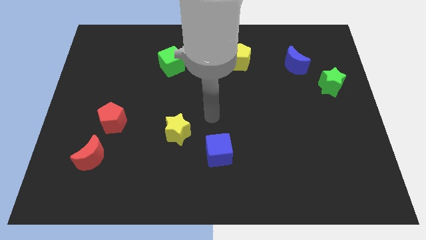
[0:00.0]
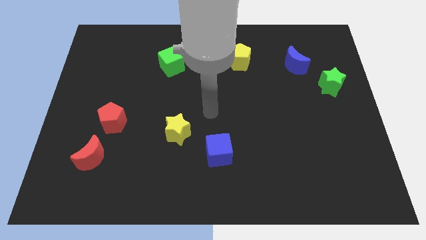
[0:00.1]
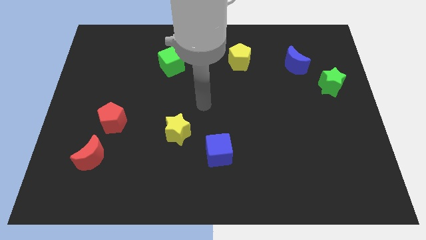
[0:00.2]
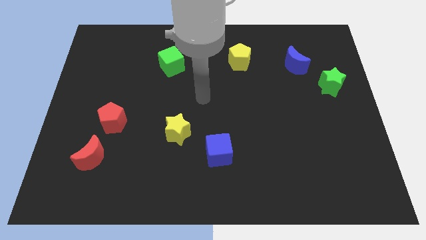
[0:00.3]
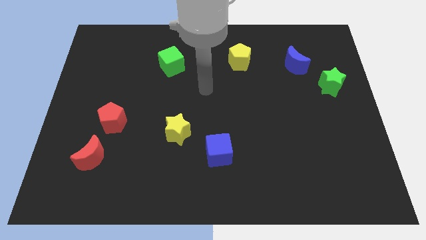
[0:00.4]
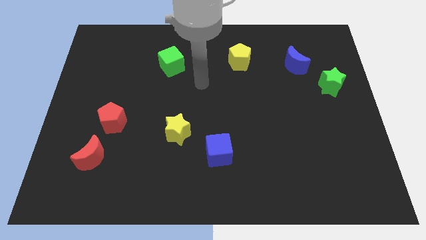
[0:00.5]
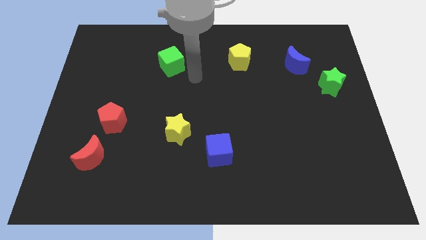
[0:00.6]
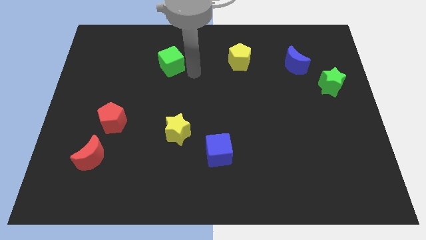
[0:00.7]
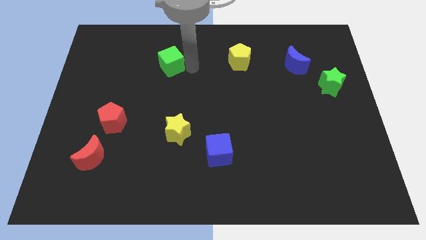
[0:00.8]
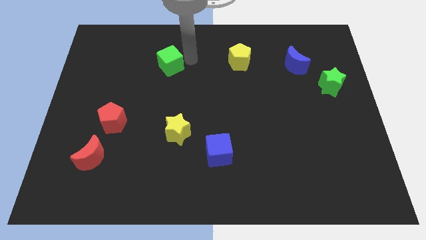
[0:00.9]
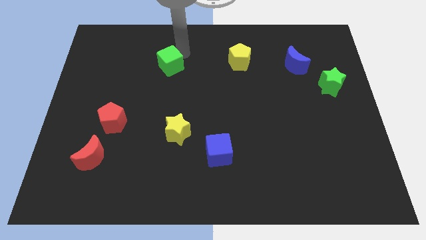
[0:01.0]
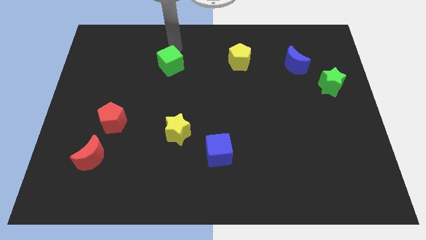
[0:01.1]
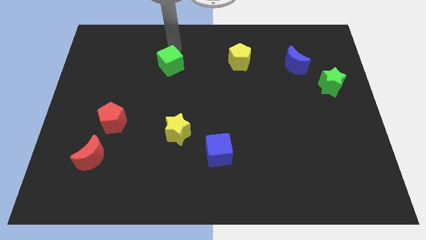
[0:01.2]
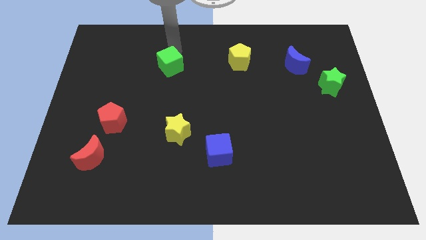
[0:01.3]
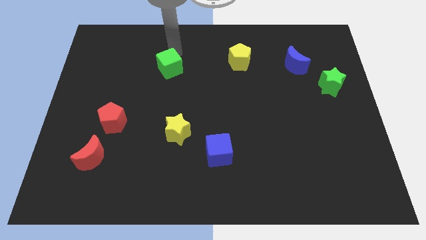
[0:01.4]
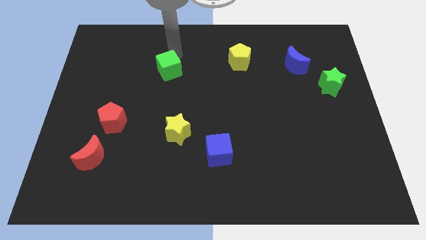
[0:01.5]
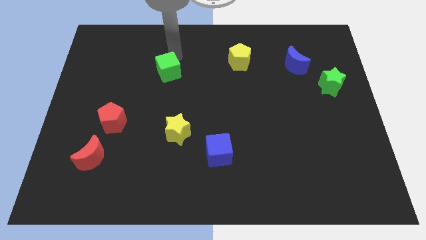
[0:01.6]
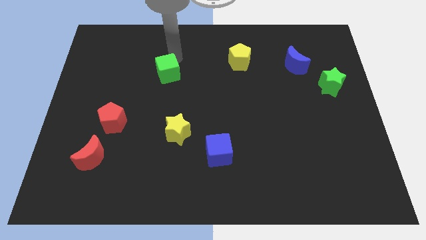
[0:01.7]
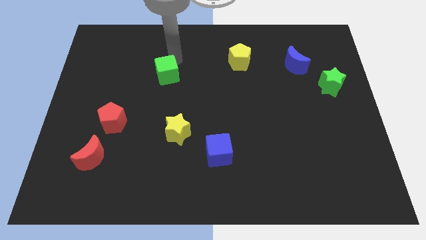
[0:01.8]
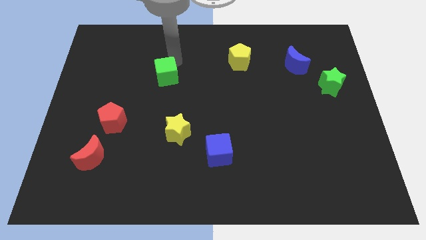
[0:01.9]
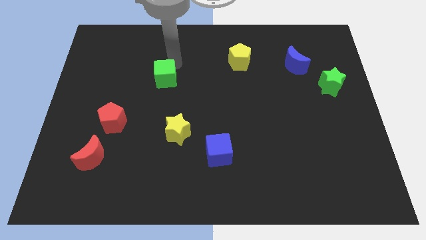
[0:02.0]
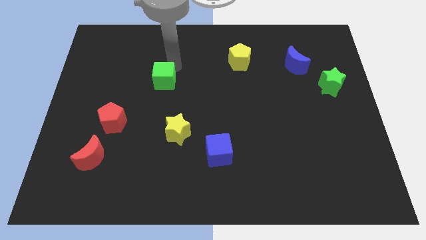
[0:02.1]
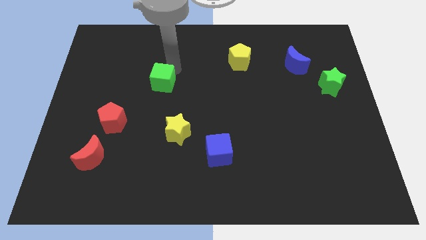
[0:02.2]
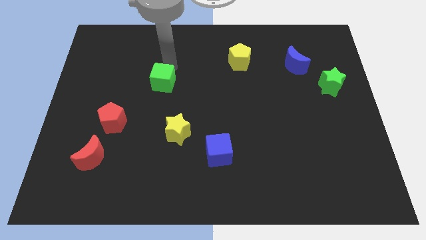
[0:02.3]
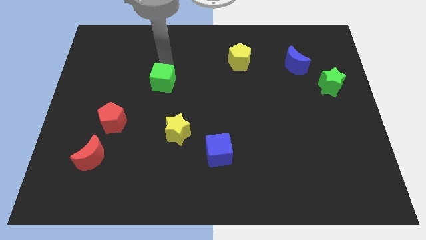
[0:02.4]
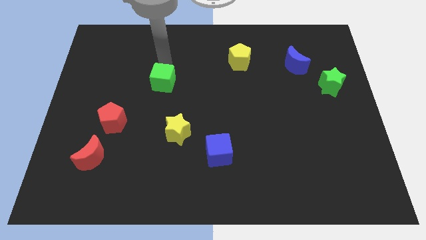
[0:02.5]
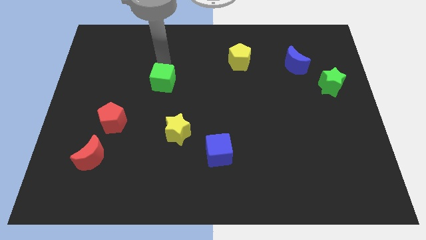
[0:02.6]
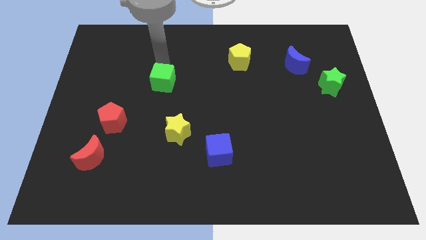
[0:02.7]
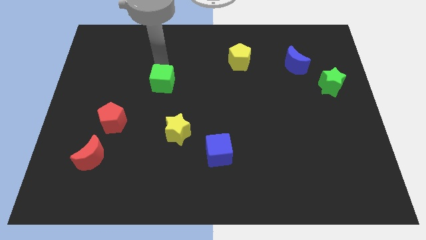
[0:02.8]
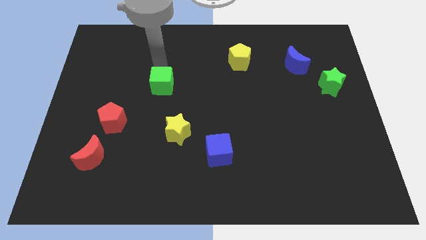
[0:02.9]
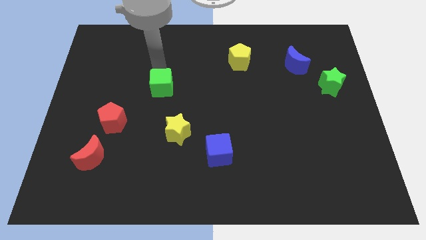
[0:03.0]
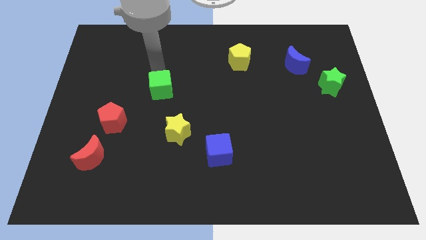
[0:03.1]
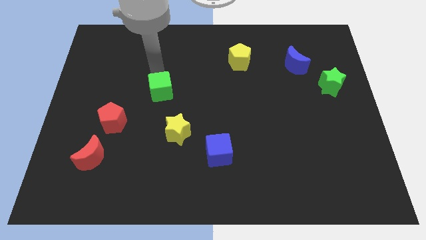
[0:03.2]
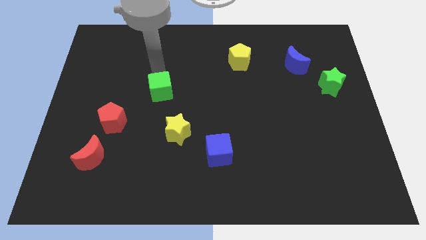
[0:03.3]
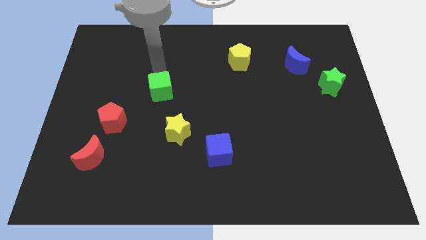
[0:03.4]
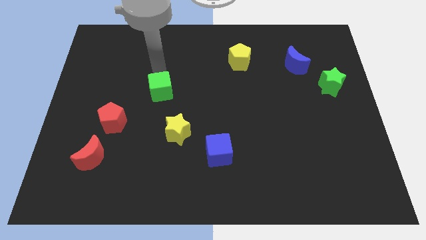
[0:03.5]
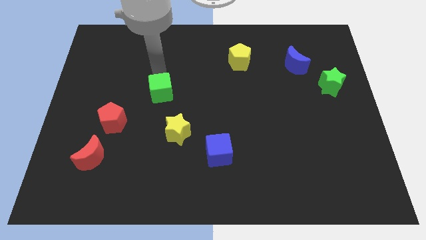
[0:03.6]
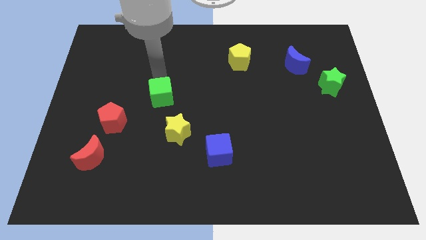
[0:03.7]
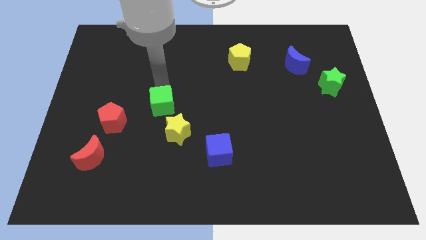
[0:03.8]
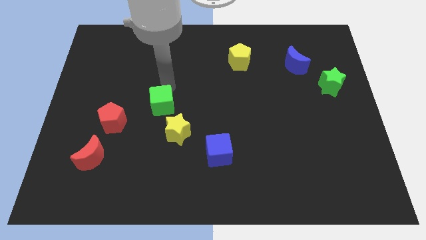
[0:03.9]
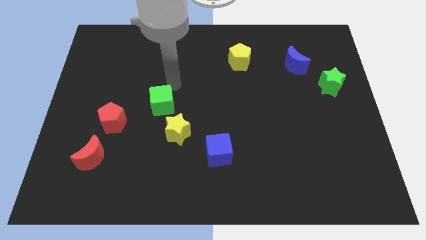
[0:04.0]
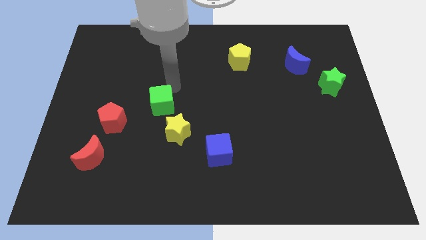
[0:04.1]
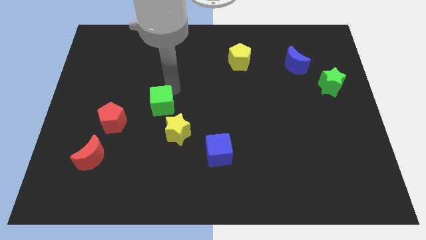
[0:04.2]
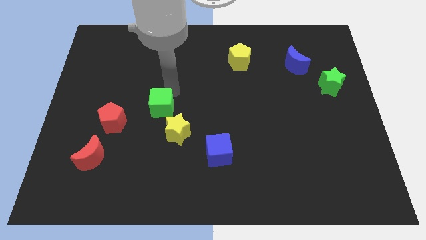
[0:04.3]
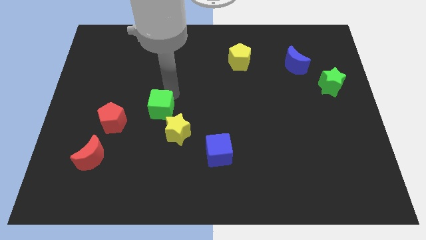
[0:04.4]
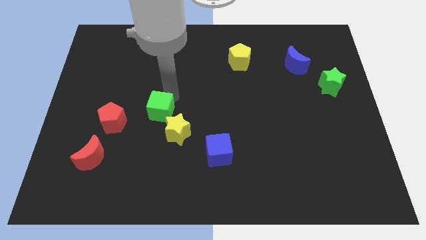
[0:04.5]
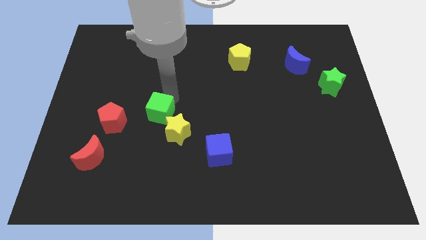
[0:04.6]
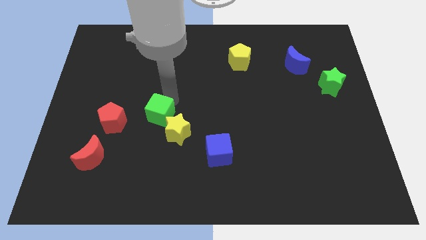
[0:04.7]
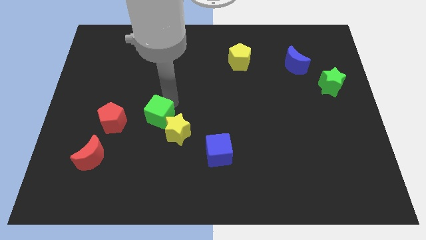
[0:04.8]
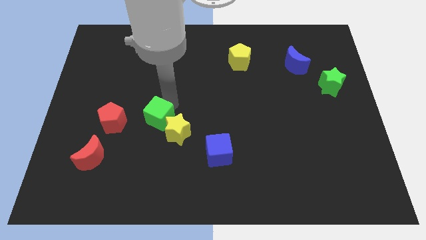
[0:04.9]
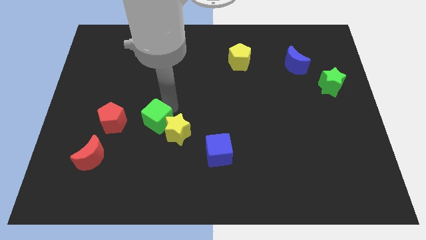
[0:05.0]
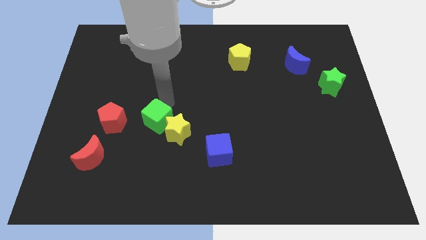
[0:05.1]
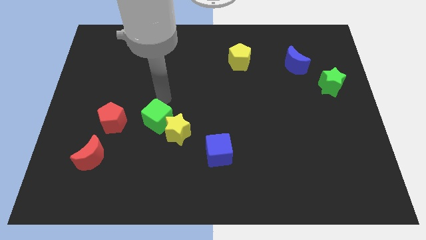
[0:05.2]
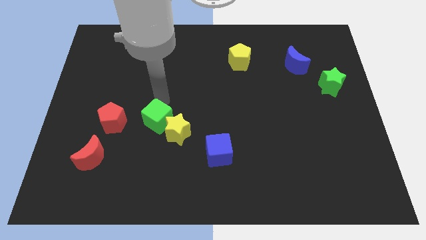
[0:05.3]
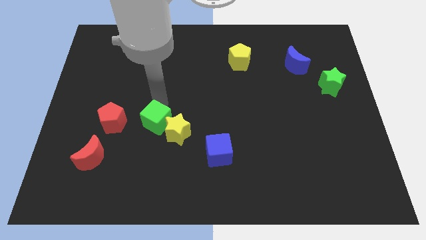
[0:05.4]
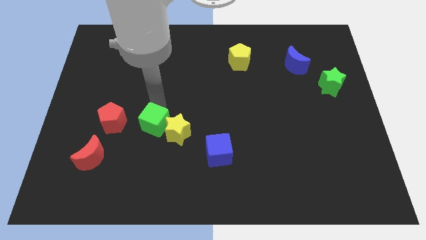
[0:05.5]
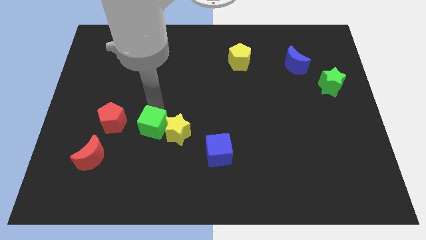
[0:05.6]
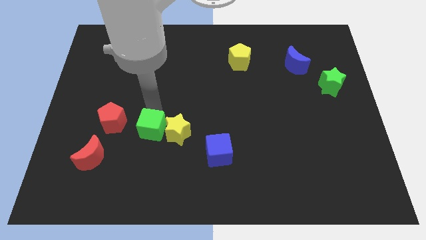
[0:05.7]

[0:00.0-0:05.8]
move the green cube to the bottom left side of the yellow star

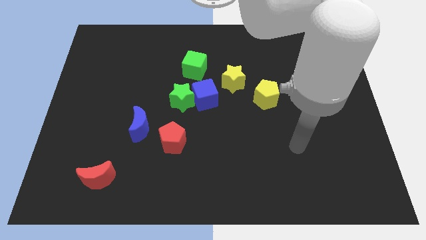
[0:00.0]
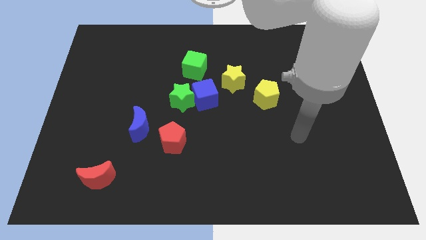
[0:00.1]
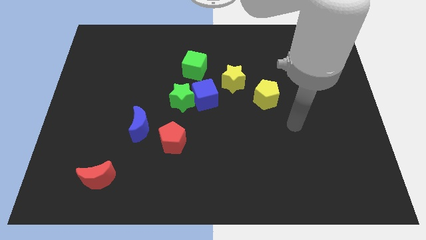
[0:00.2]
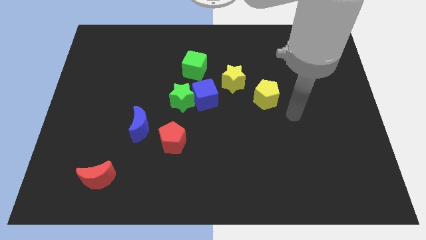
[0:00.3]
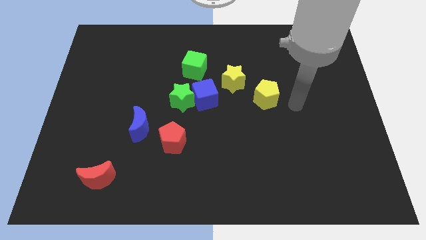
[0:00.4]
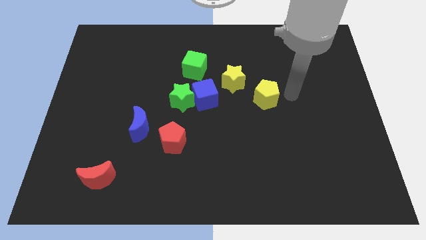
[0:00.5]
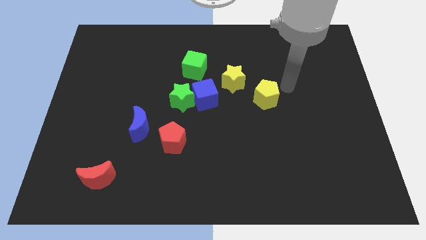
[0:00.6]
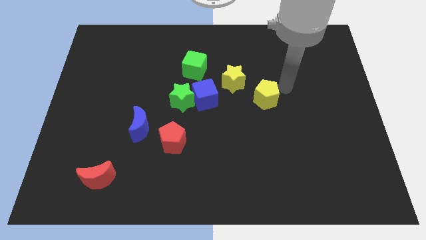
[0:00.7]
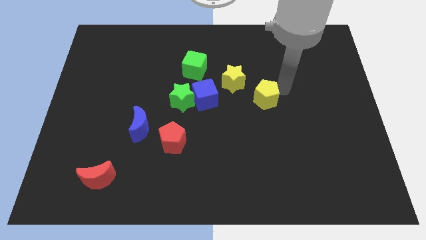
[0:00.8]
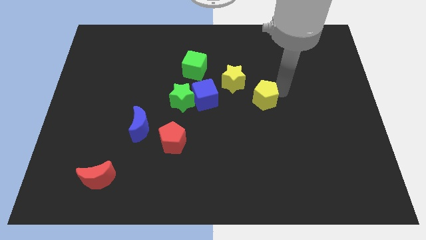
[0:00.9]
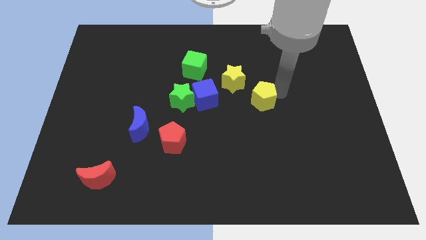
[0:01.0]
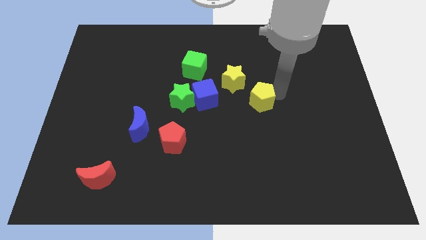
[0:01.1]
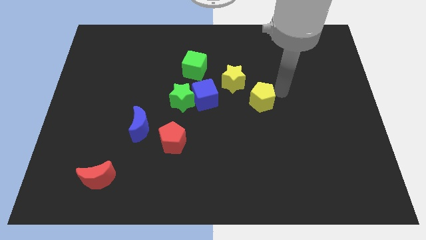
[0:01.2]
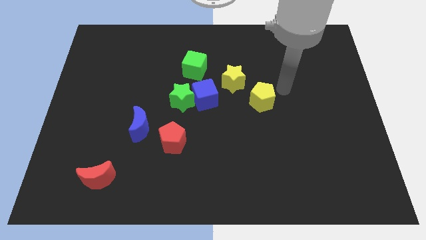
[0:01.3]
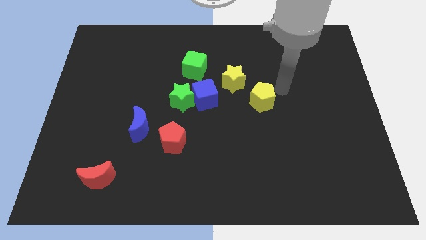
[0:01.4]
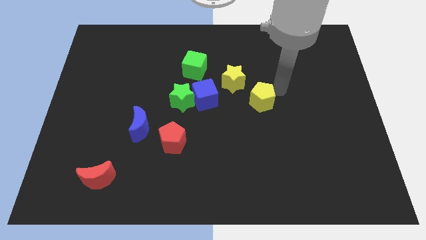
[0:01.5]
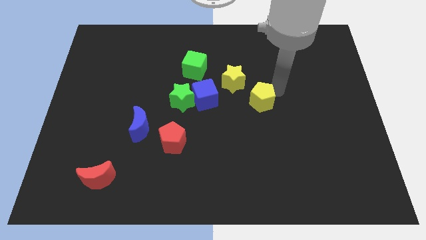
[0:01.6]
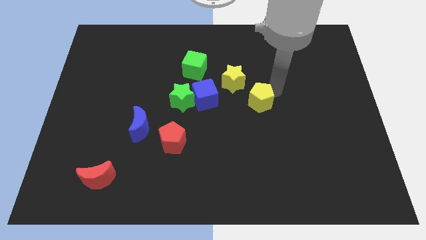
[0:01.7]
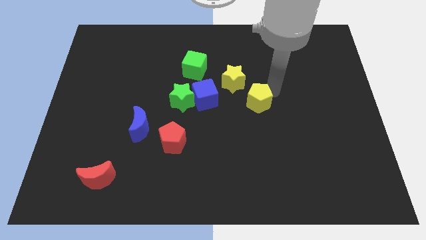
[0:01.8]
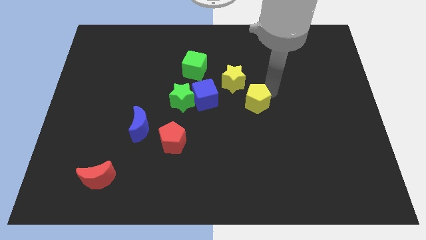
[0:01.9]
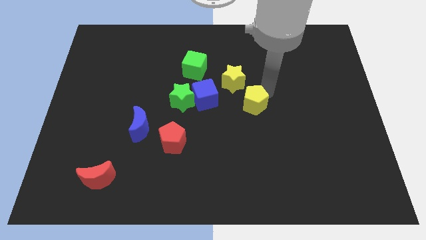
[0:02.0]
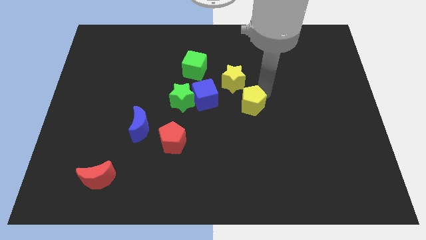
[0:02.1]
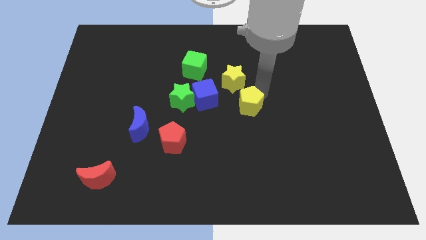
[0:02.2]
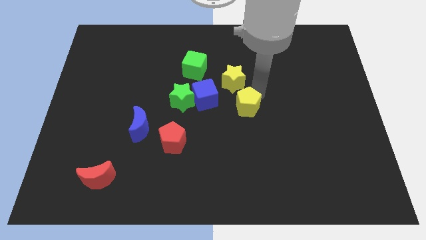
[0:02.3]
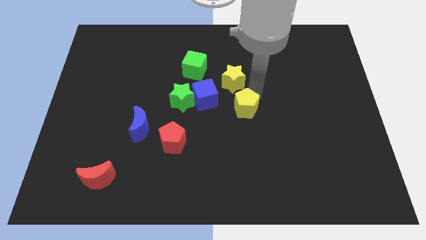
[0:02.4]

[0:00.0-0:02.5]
push the yellow pentagon diagonally down and to the right of the blue cube
